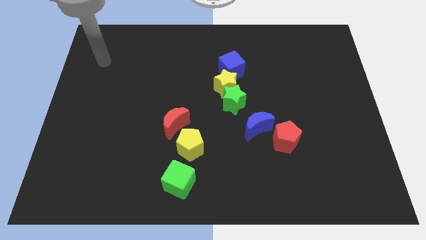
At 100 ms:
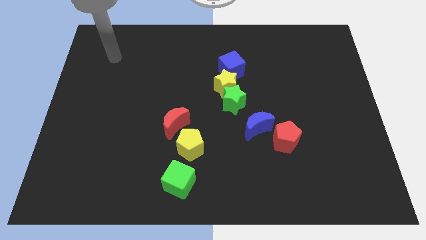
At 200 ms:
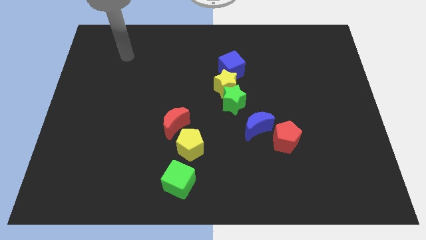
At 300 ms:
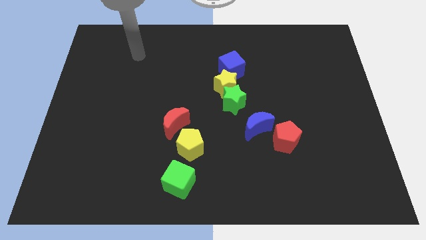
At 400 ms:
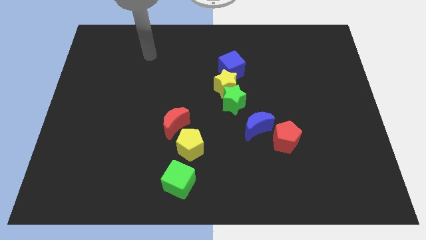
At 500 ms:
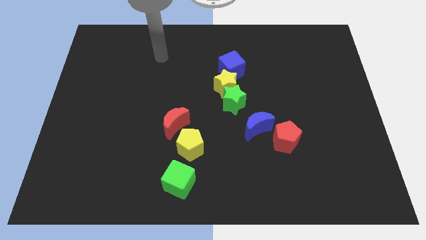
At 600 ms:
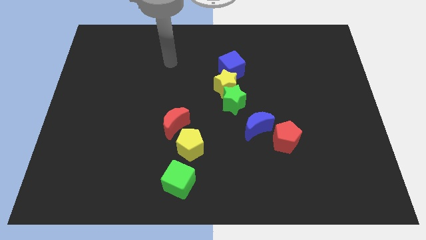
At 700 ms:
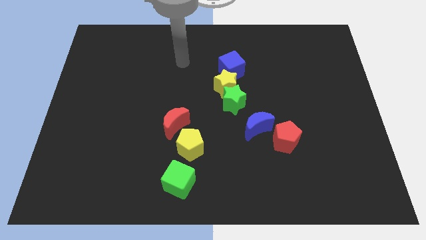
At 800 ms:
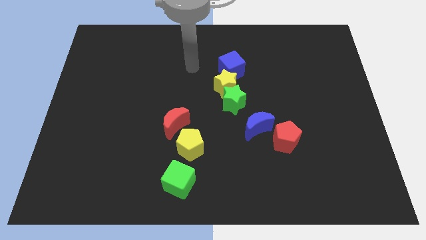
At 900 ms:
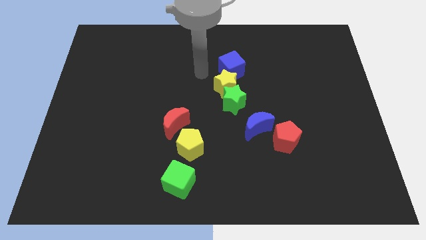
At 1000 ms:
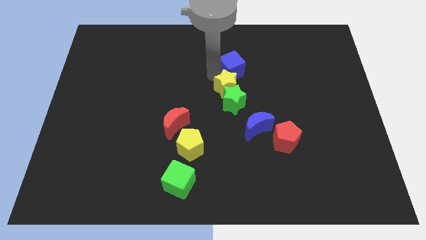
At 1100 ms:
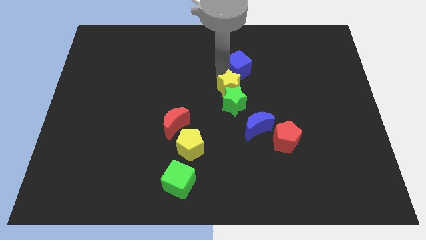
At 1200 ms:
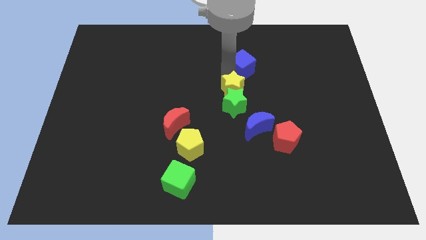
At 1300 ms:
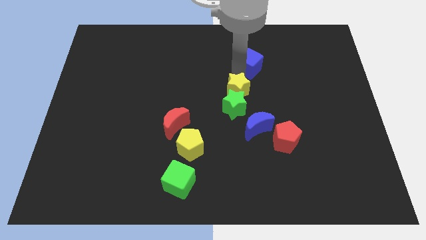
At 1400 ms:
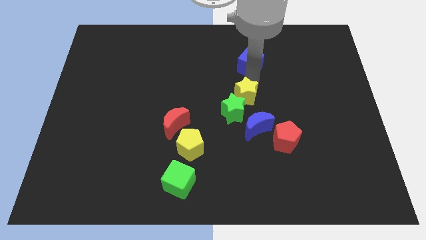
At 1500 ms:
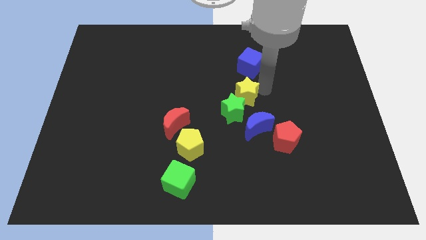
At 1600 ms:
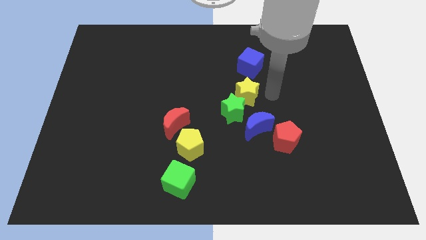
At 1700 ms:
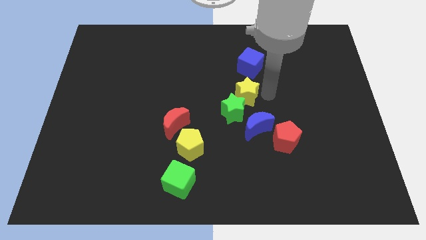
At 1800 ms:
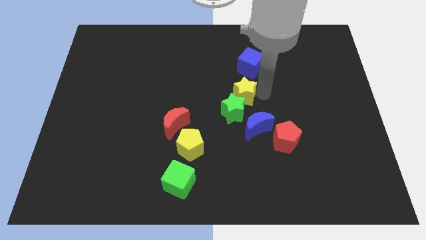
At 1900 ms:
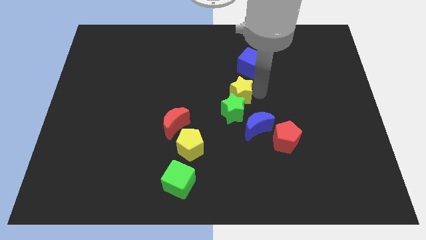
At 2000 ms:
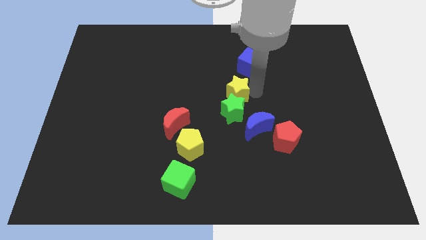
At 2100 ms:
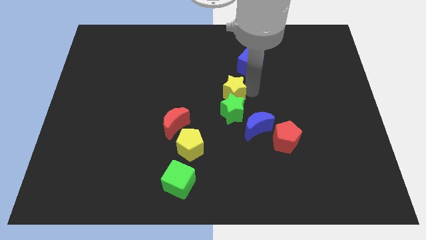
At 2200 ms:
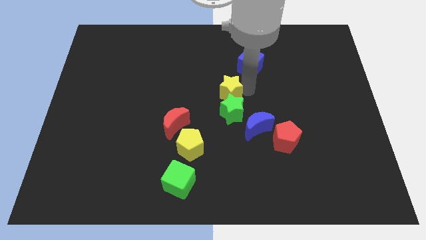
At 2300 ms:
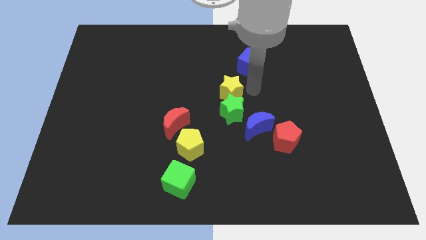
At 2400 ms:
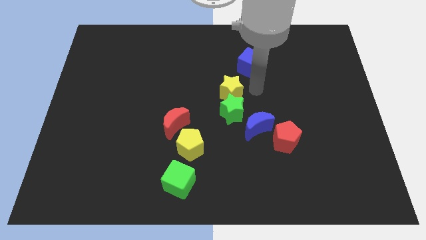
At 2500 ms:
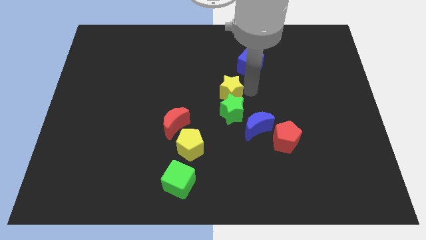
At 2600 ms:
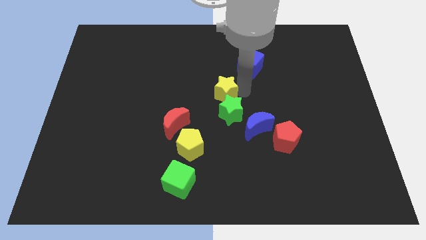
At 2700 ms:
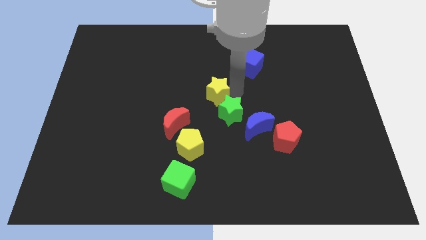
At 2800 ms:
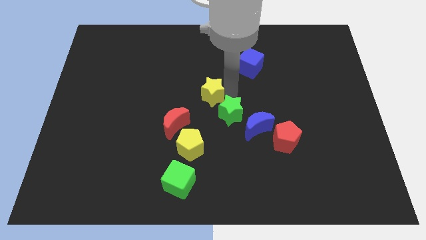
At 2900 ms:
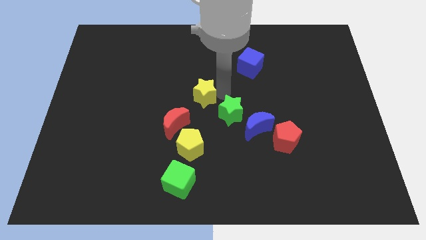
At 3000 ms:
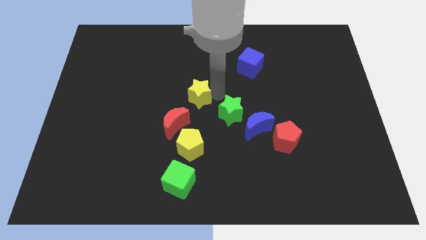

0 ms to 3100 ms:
separate the yellow star from the green star and blue cube

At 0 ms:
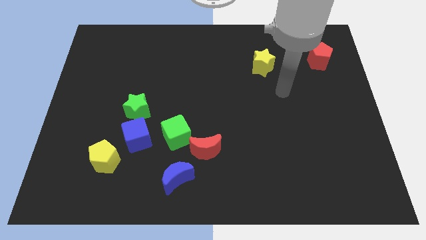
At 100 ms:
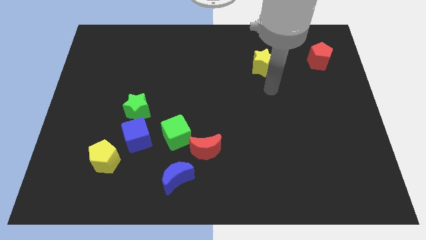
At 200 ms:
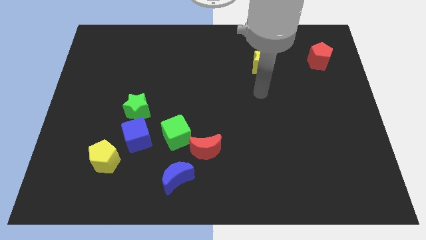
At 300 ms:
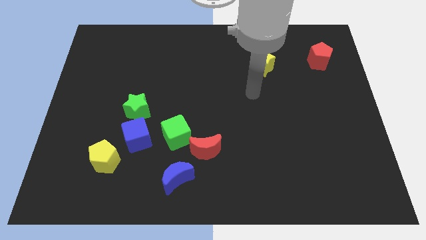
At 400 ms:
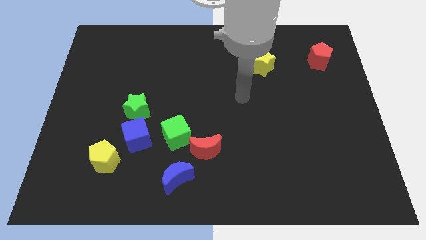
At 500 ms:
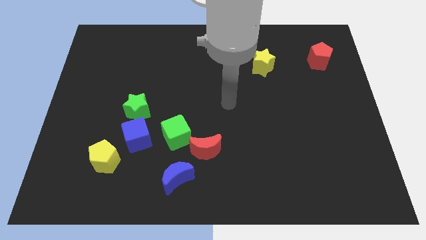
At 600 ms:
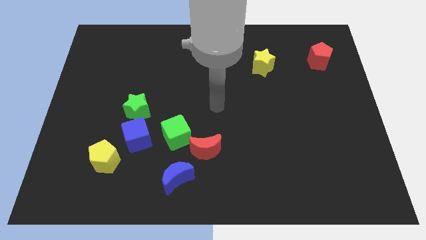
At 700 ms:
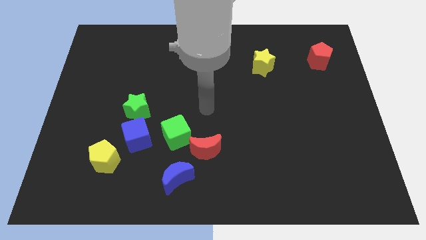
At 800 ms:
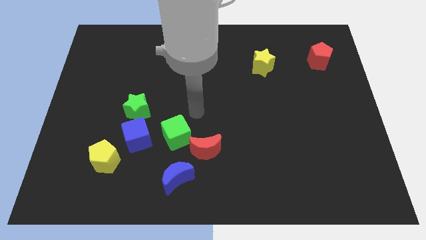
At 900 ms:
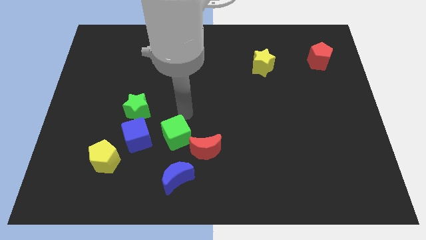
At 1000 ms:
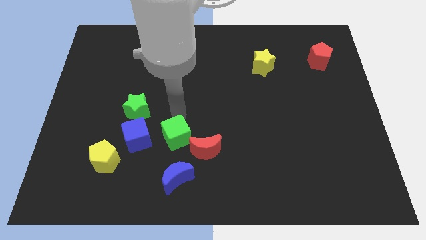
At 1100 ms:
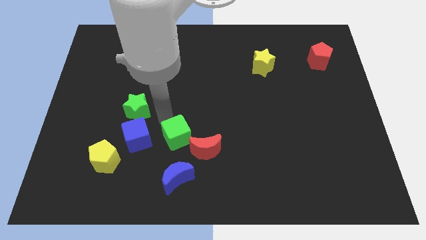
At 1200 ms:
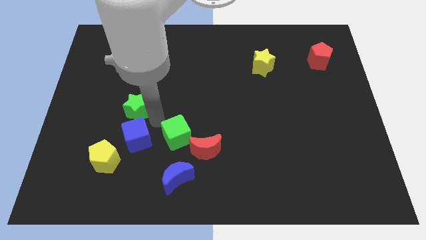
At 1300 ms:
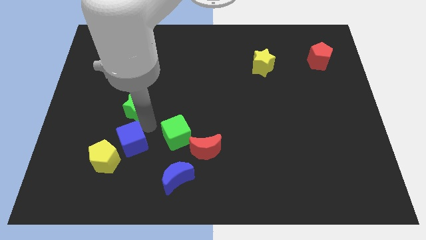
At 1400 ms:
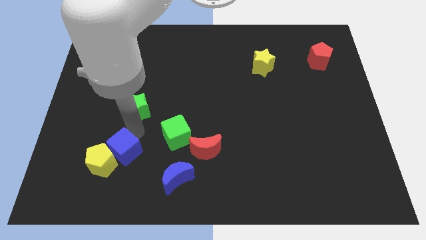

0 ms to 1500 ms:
pull the green star apart from the blue cube

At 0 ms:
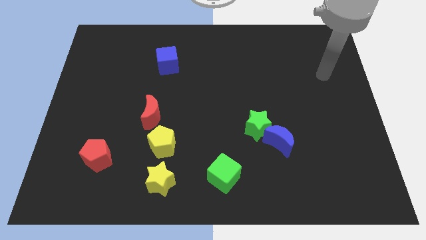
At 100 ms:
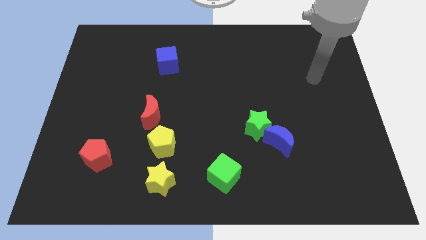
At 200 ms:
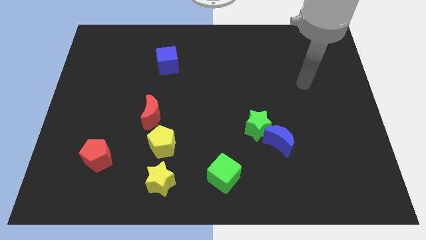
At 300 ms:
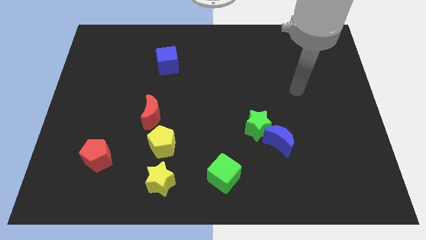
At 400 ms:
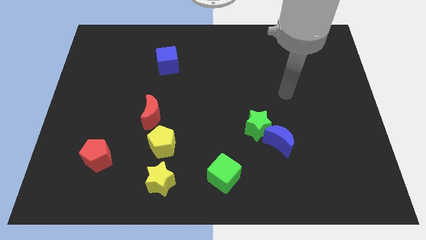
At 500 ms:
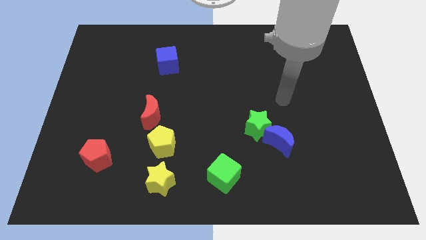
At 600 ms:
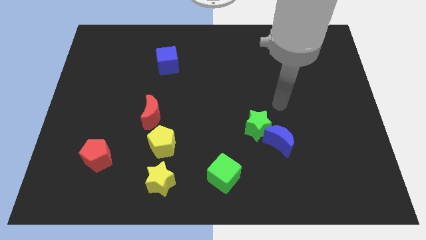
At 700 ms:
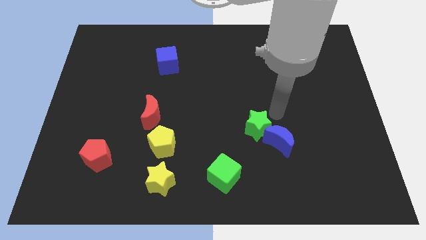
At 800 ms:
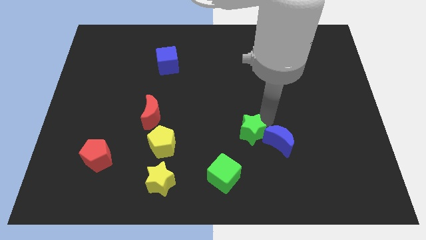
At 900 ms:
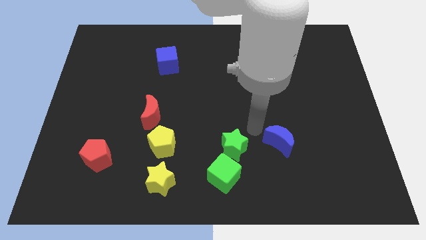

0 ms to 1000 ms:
move the blue moon away from the green star

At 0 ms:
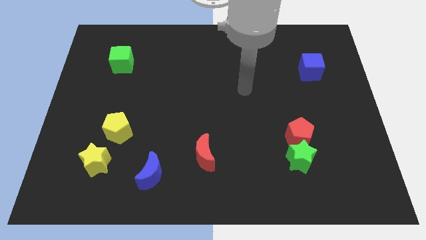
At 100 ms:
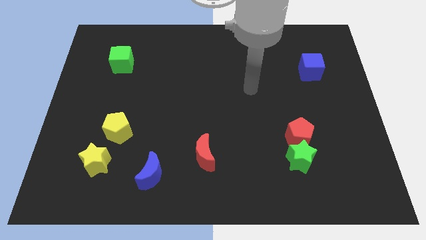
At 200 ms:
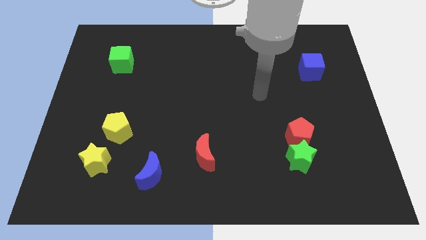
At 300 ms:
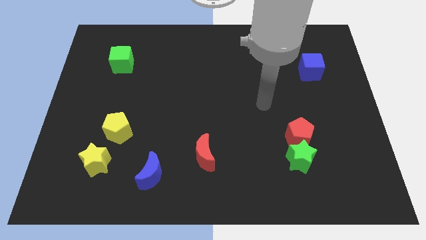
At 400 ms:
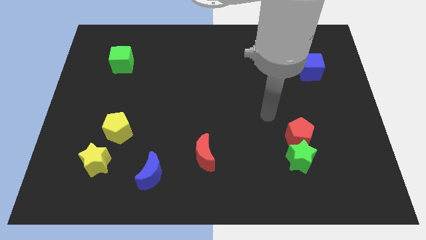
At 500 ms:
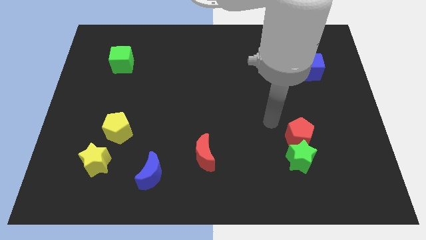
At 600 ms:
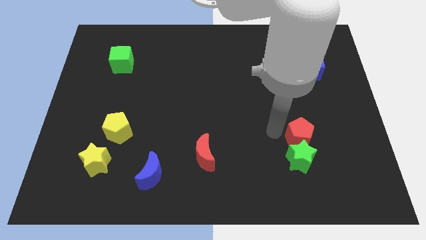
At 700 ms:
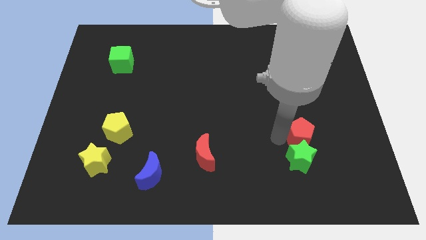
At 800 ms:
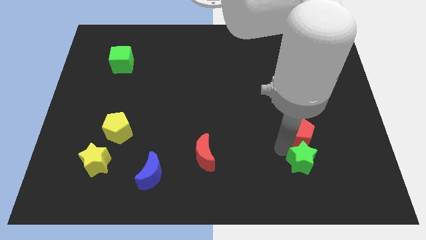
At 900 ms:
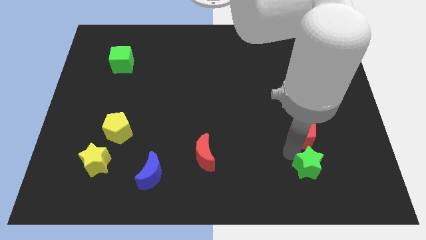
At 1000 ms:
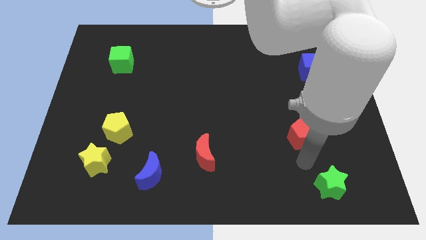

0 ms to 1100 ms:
pull the red pentagon apart from the green star

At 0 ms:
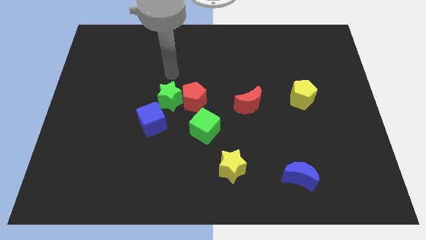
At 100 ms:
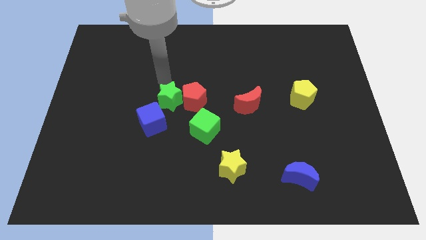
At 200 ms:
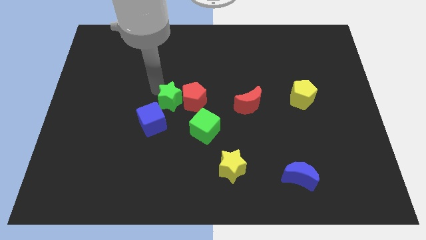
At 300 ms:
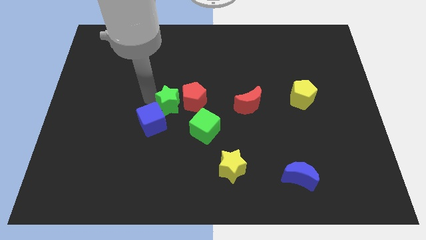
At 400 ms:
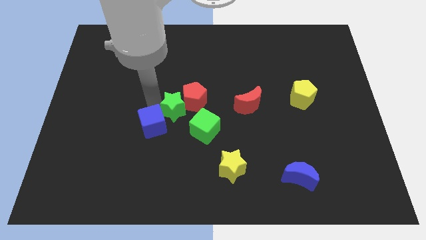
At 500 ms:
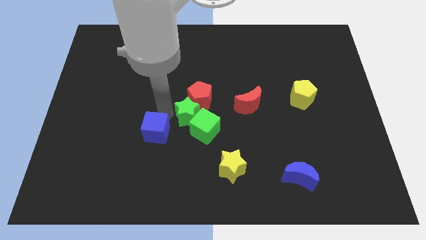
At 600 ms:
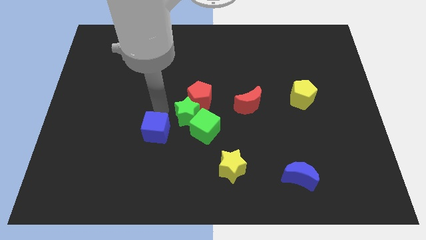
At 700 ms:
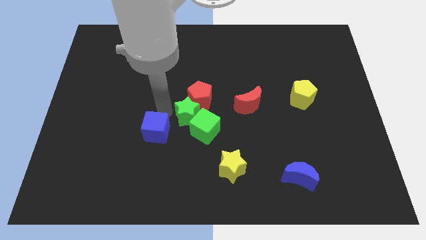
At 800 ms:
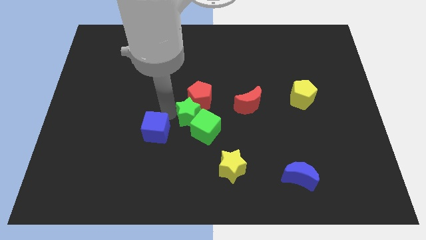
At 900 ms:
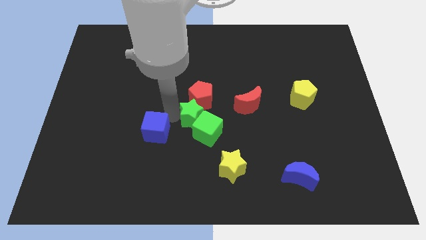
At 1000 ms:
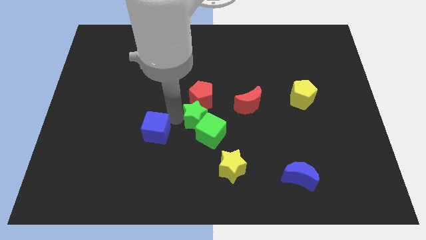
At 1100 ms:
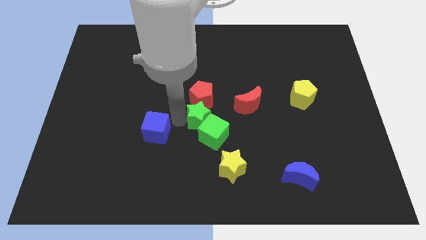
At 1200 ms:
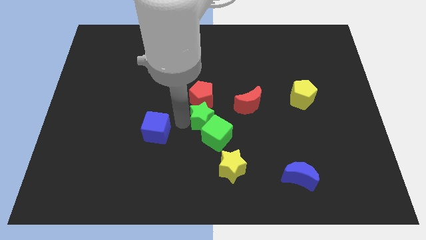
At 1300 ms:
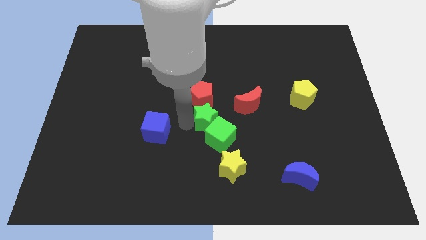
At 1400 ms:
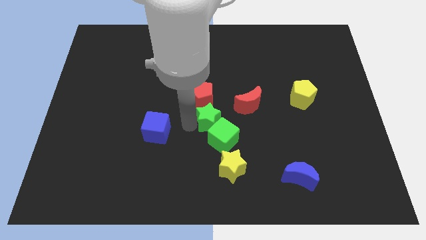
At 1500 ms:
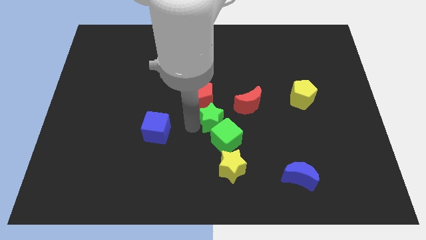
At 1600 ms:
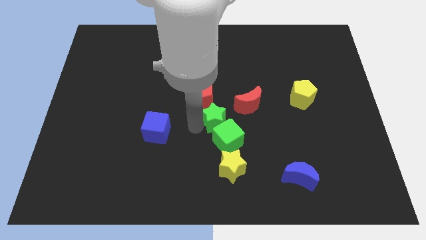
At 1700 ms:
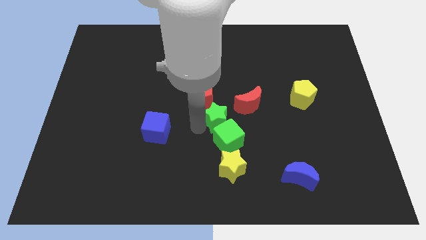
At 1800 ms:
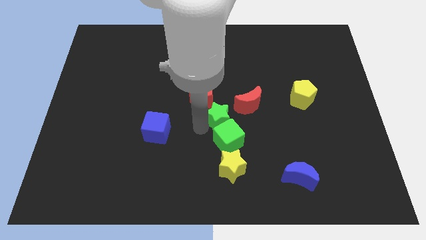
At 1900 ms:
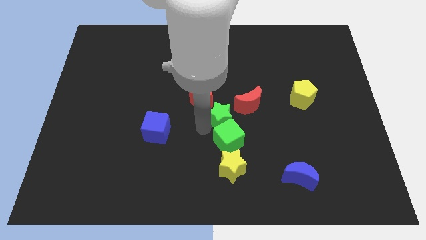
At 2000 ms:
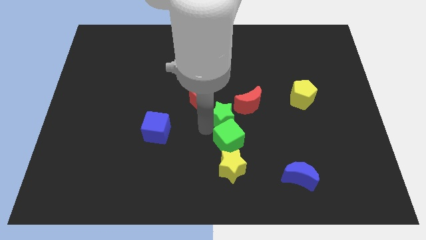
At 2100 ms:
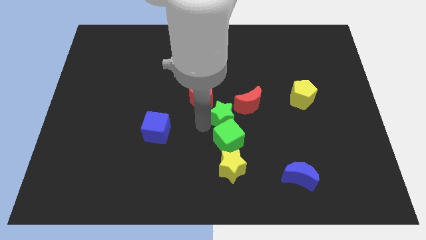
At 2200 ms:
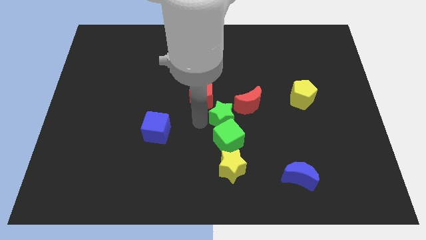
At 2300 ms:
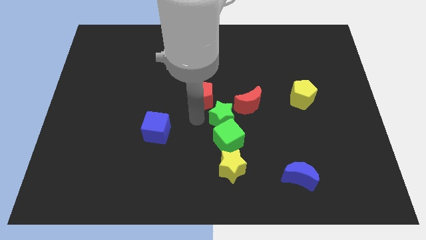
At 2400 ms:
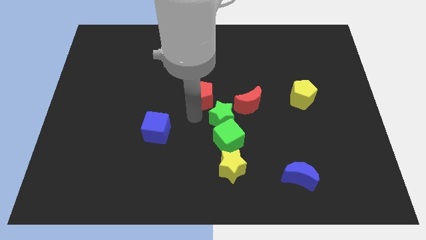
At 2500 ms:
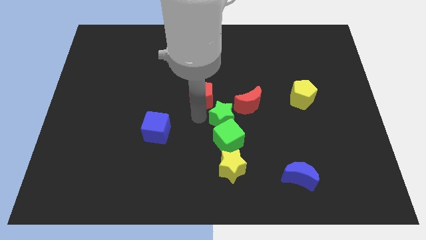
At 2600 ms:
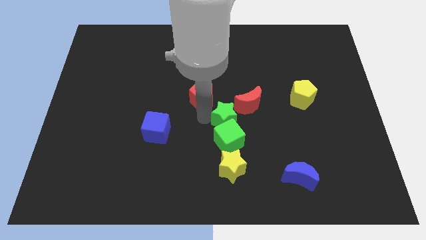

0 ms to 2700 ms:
separate the green star from the red pentagon and blue cube
